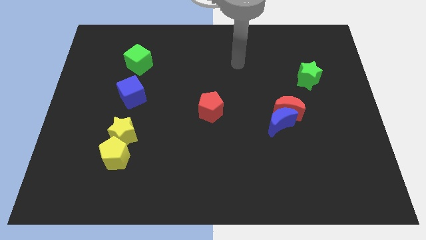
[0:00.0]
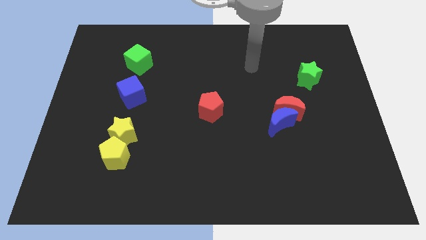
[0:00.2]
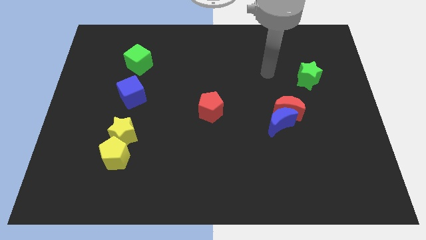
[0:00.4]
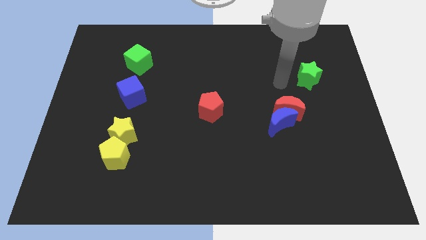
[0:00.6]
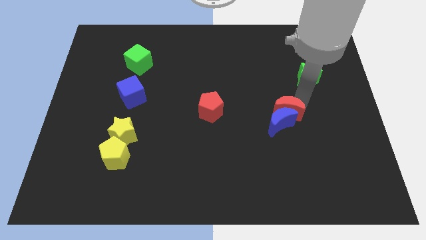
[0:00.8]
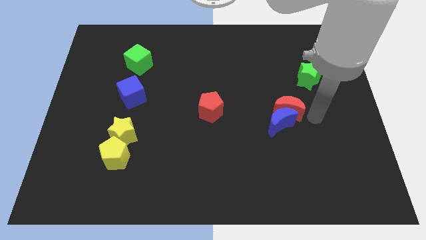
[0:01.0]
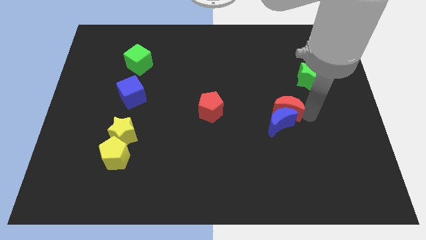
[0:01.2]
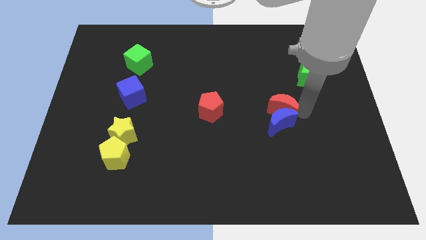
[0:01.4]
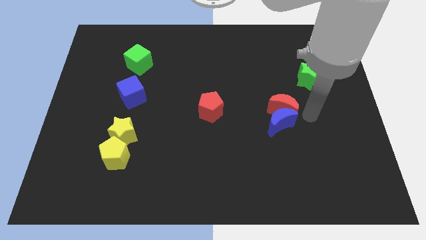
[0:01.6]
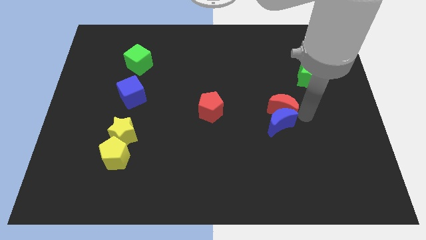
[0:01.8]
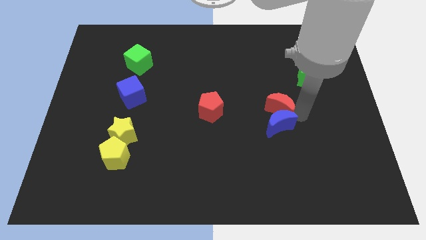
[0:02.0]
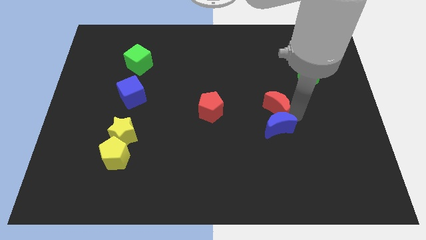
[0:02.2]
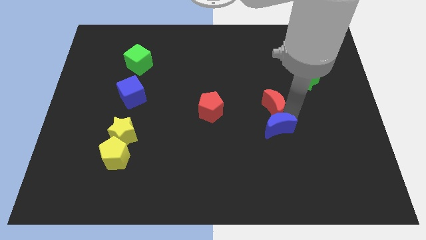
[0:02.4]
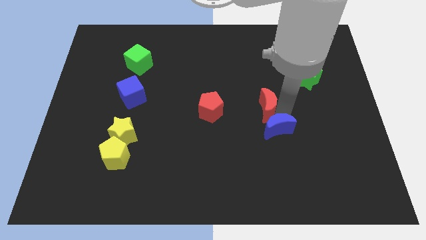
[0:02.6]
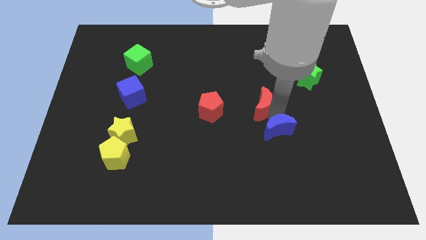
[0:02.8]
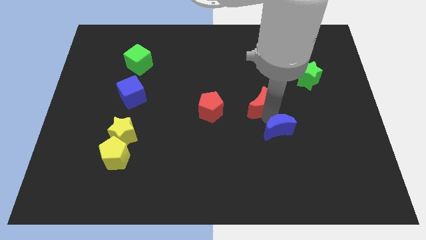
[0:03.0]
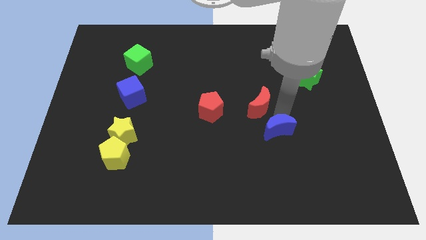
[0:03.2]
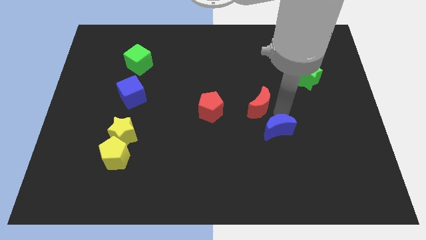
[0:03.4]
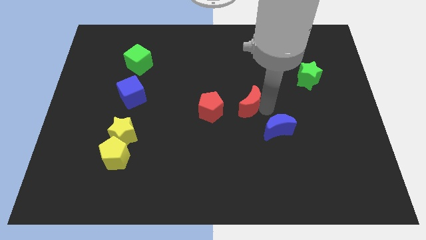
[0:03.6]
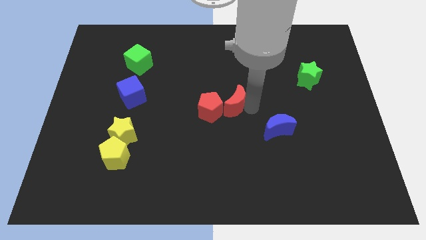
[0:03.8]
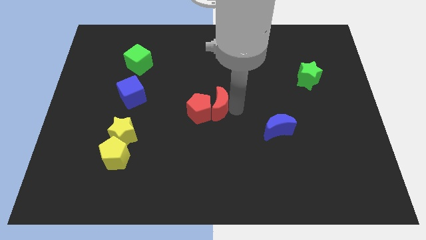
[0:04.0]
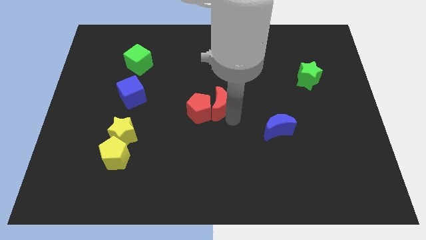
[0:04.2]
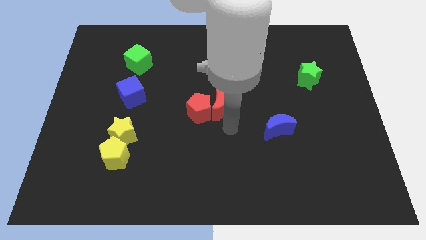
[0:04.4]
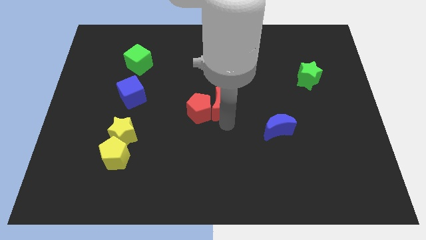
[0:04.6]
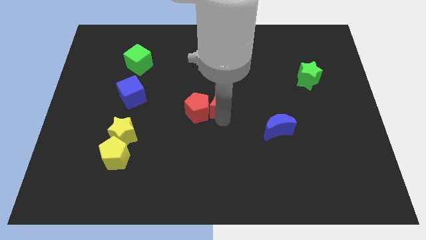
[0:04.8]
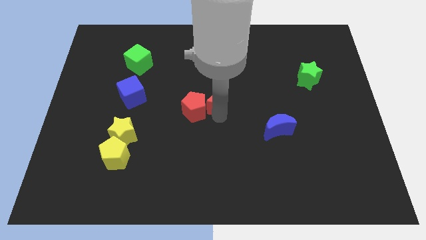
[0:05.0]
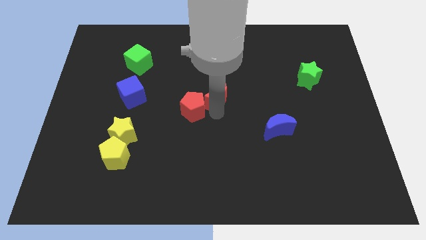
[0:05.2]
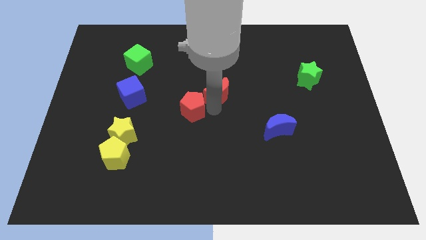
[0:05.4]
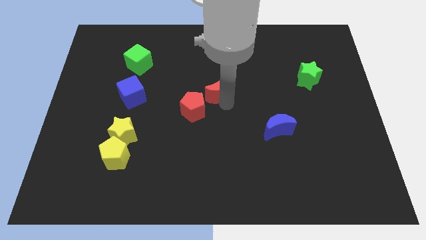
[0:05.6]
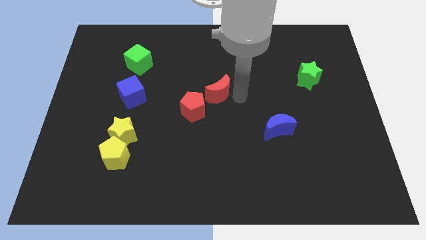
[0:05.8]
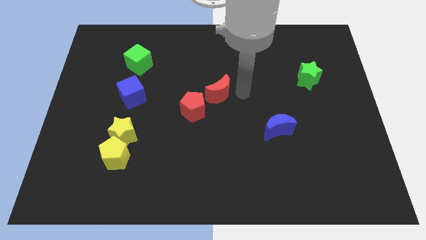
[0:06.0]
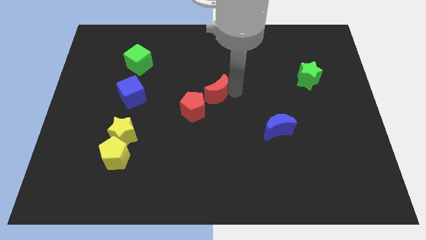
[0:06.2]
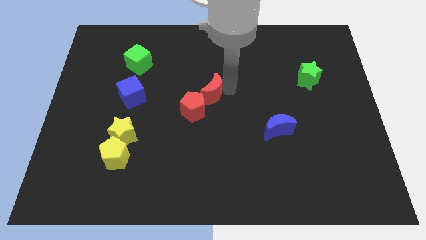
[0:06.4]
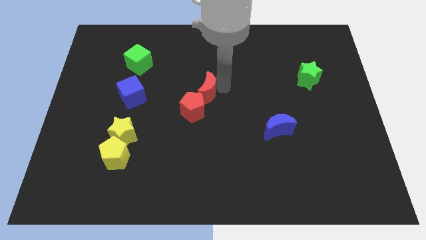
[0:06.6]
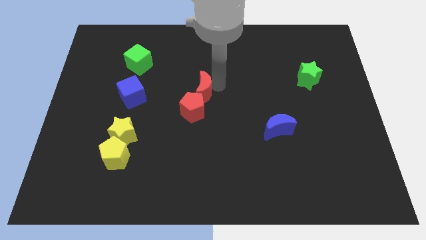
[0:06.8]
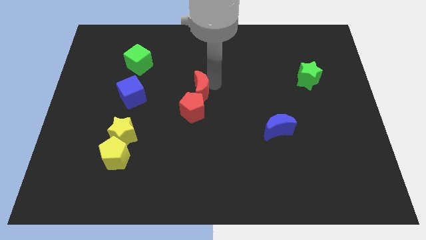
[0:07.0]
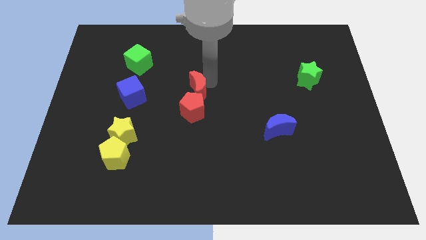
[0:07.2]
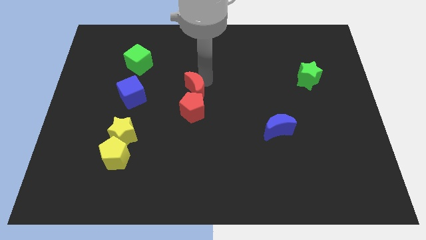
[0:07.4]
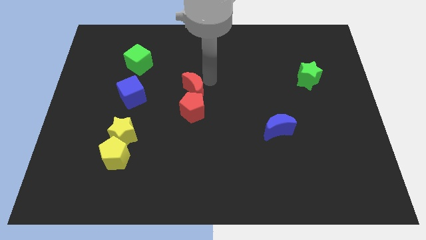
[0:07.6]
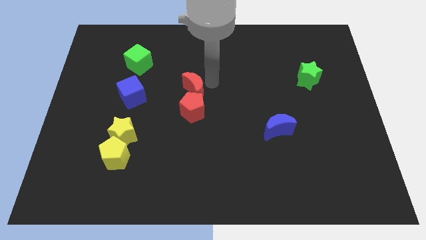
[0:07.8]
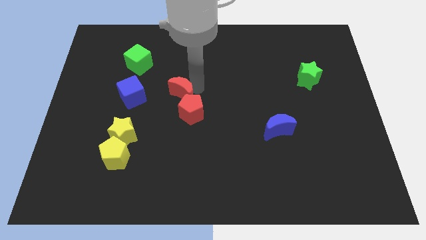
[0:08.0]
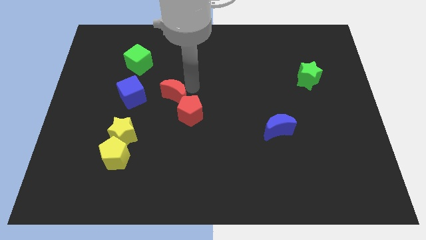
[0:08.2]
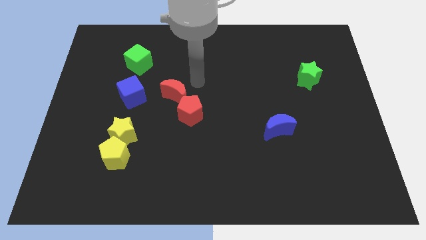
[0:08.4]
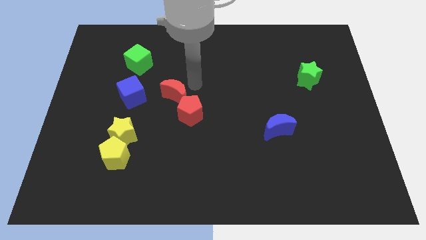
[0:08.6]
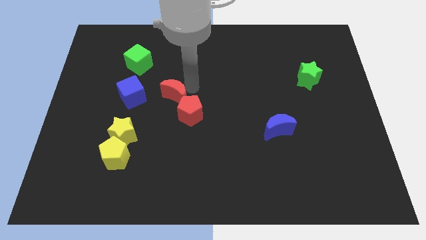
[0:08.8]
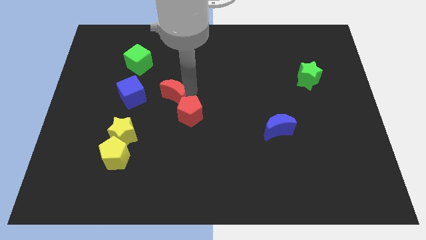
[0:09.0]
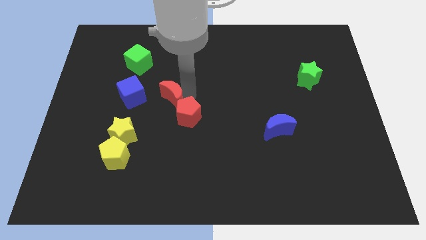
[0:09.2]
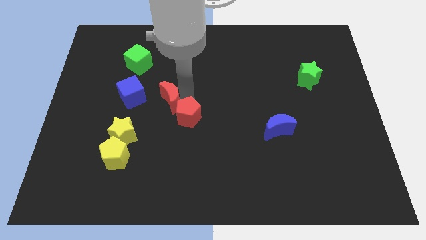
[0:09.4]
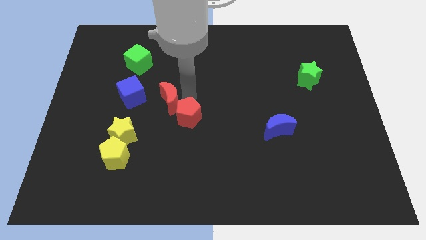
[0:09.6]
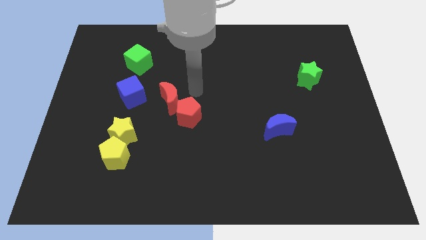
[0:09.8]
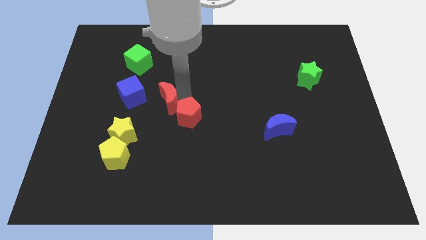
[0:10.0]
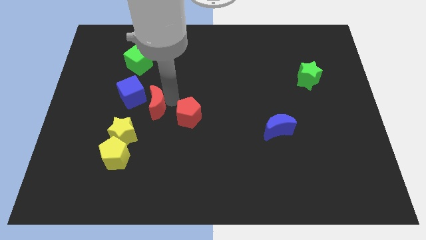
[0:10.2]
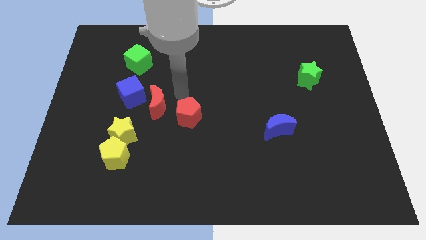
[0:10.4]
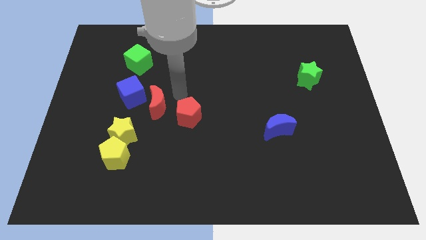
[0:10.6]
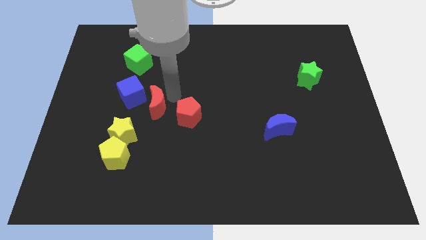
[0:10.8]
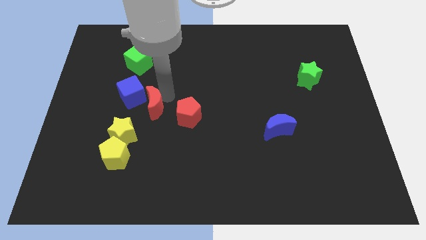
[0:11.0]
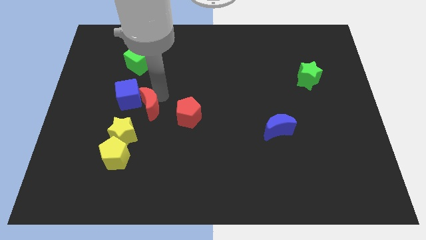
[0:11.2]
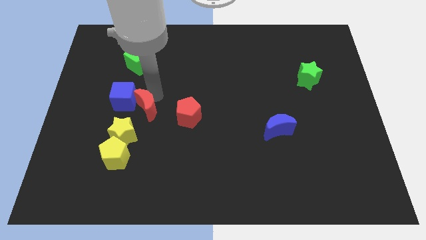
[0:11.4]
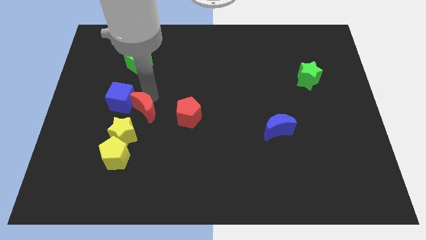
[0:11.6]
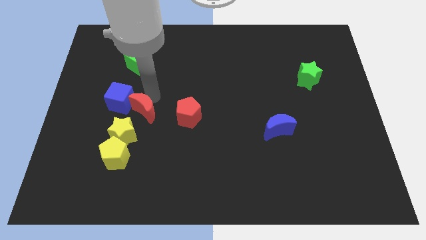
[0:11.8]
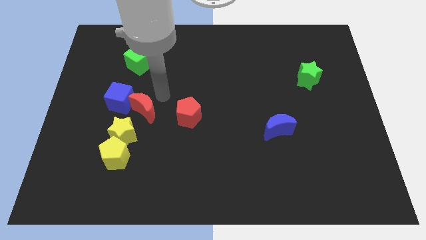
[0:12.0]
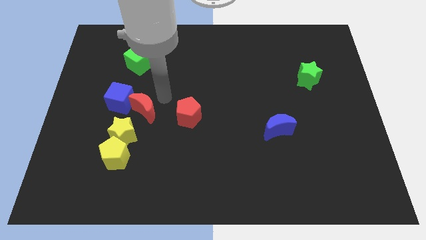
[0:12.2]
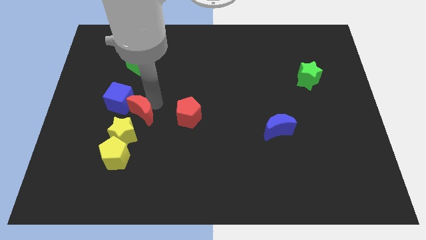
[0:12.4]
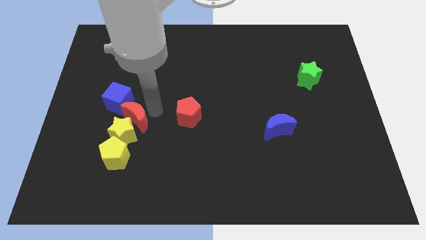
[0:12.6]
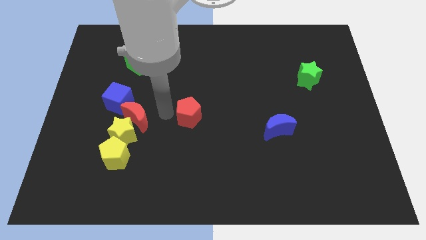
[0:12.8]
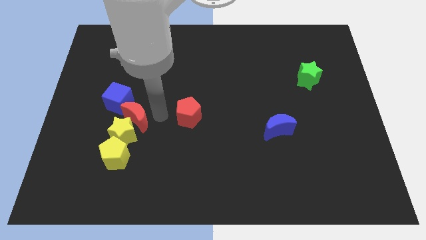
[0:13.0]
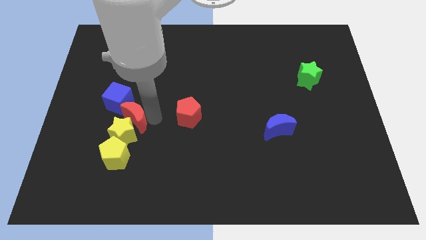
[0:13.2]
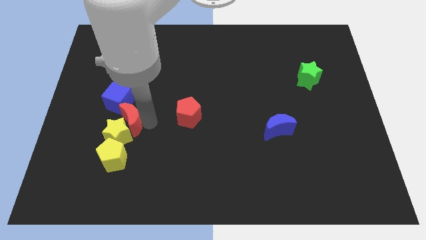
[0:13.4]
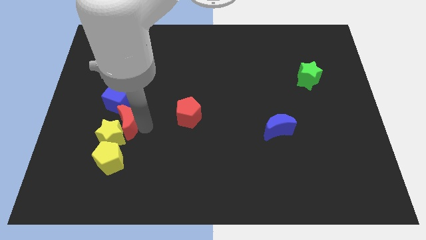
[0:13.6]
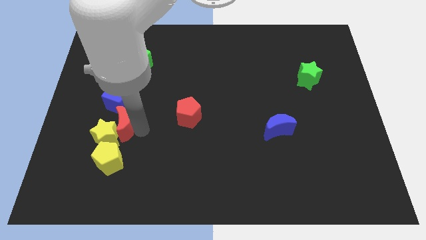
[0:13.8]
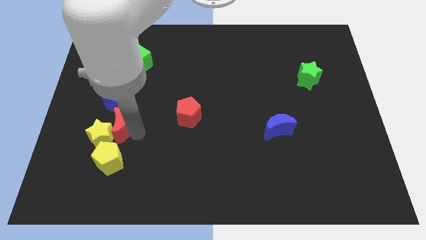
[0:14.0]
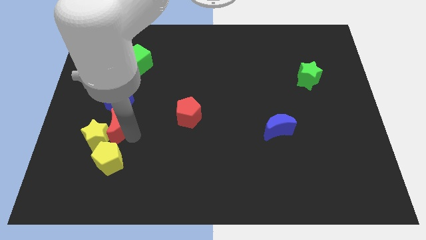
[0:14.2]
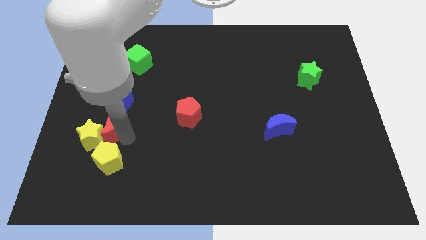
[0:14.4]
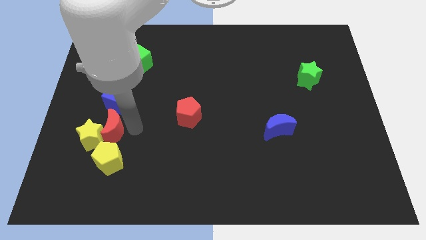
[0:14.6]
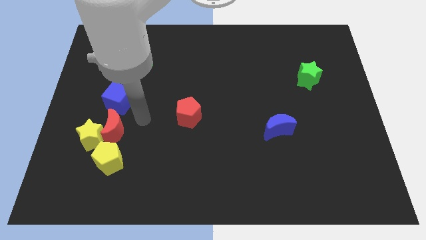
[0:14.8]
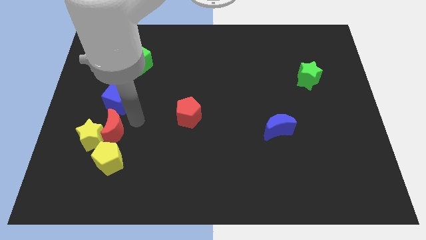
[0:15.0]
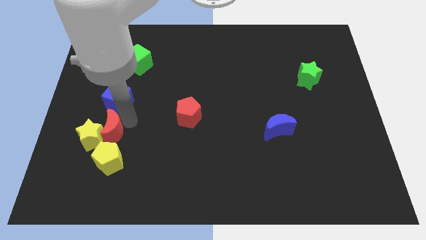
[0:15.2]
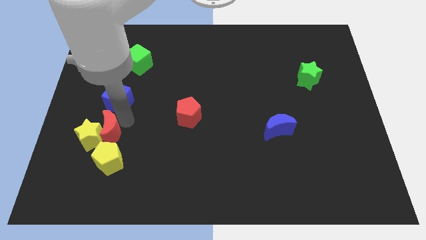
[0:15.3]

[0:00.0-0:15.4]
move the red moon to the top left of the yellow pentagon
